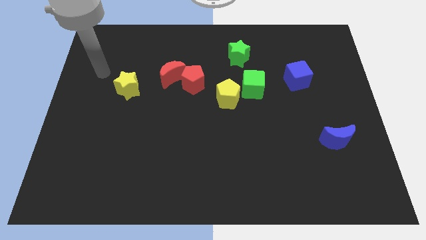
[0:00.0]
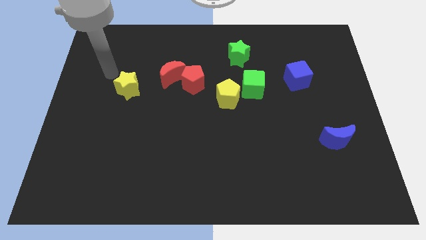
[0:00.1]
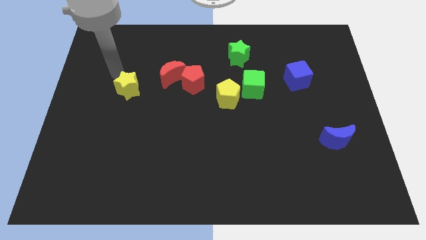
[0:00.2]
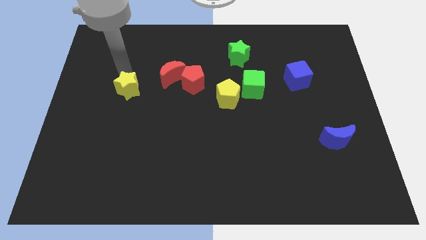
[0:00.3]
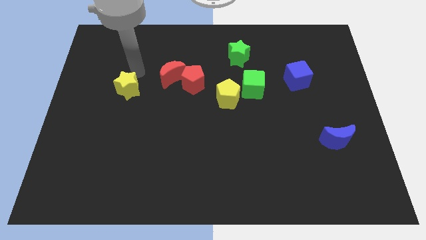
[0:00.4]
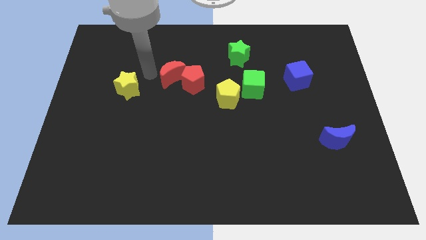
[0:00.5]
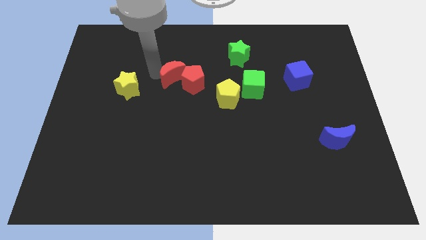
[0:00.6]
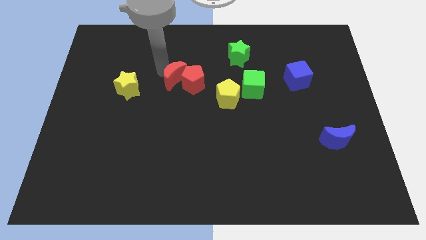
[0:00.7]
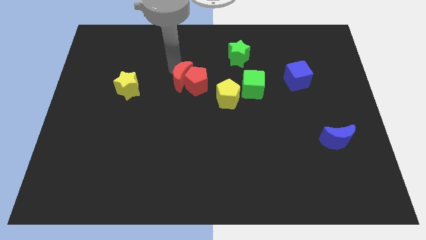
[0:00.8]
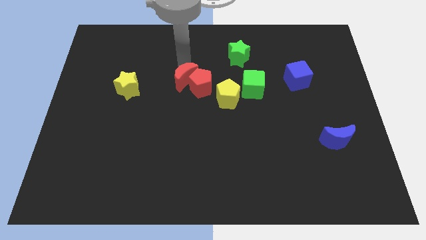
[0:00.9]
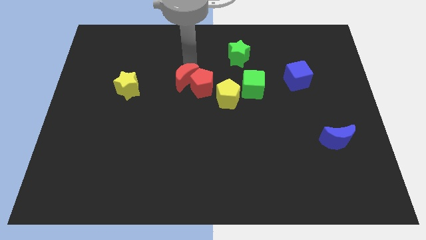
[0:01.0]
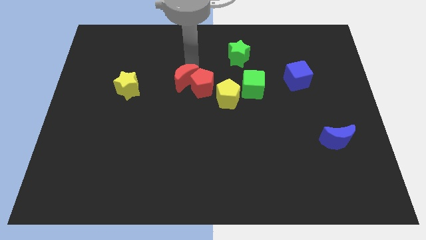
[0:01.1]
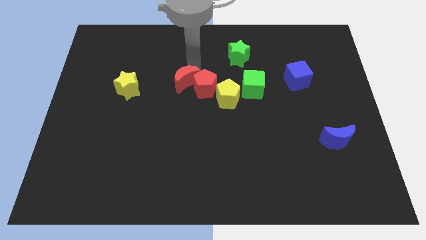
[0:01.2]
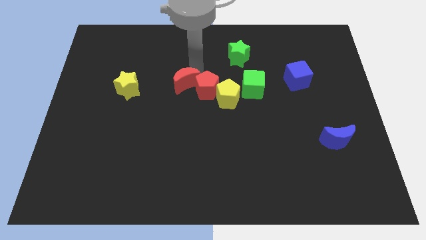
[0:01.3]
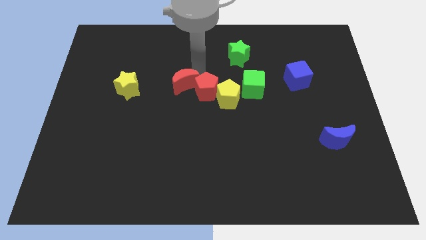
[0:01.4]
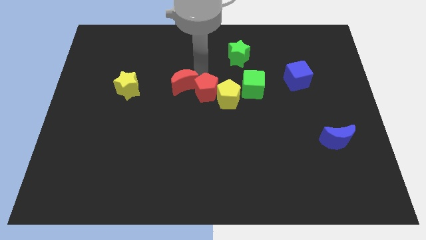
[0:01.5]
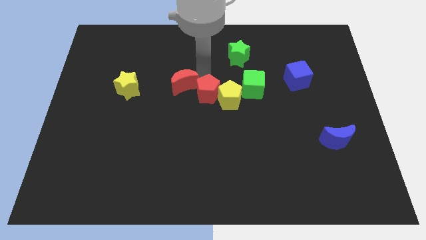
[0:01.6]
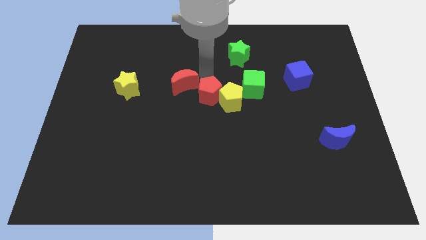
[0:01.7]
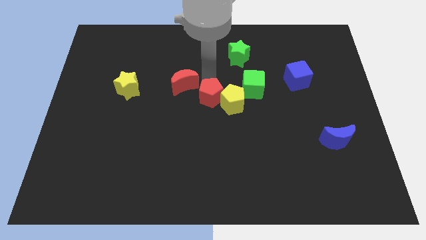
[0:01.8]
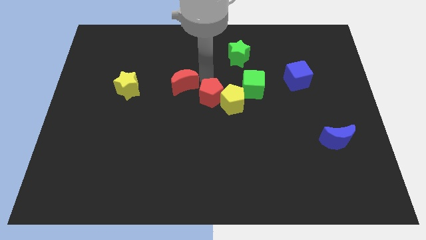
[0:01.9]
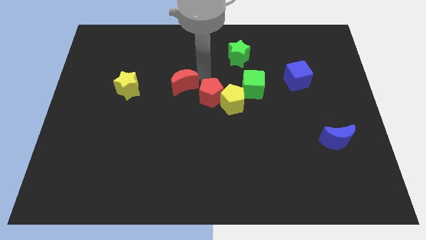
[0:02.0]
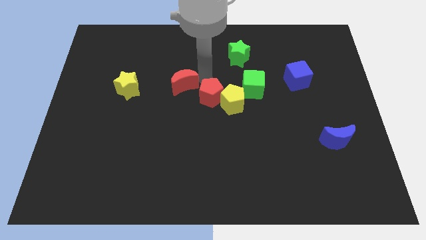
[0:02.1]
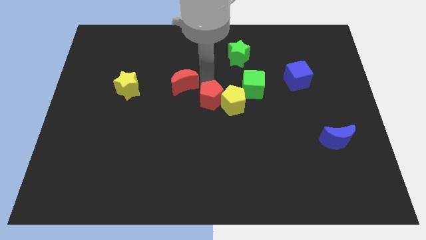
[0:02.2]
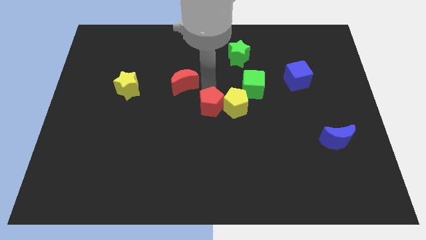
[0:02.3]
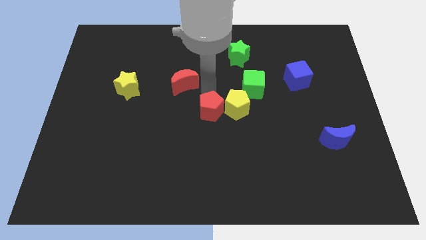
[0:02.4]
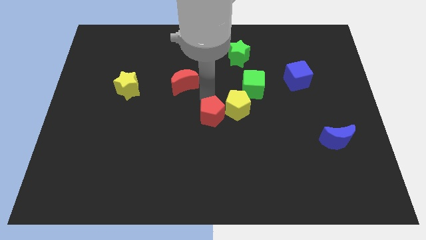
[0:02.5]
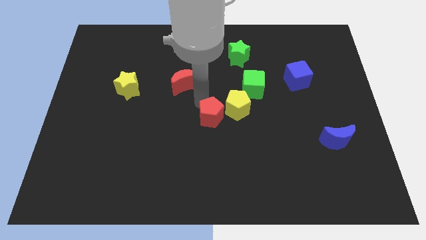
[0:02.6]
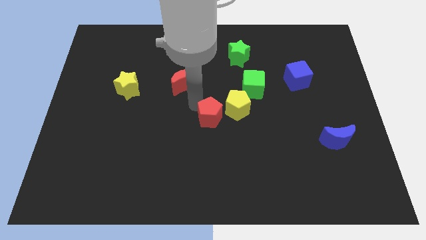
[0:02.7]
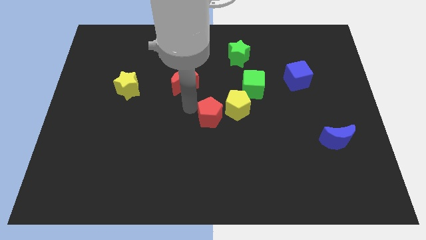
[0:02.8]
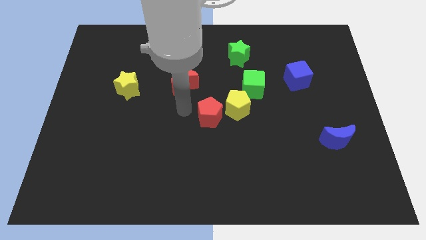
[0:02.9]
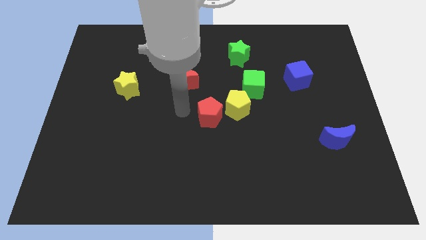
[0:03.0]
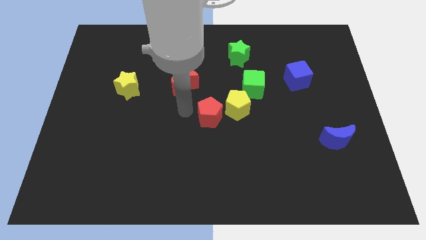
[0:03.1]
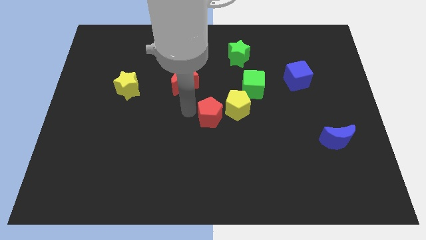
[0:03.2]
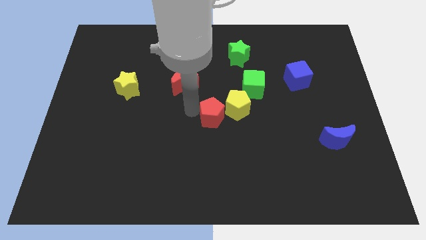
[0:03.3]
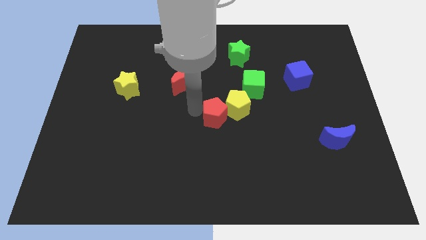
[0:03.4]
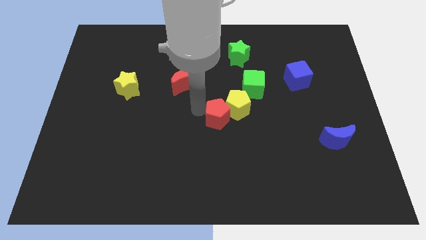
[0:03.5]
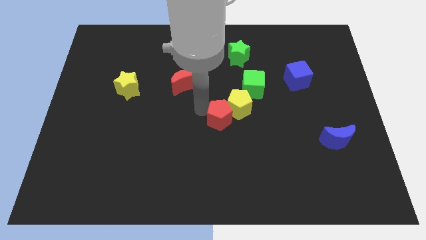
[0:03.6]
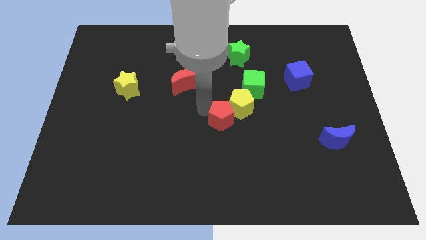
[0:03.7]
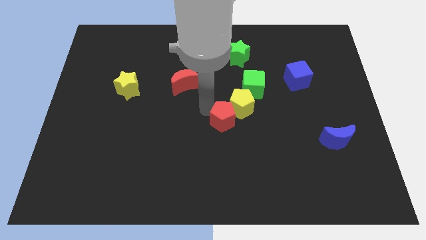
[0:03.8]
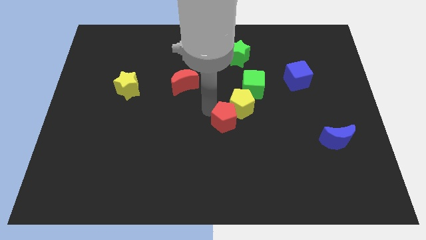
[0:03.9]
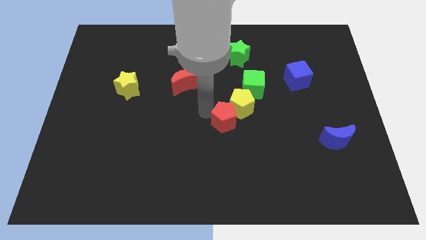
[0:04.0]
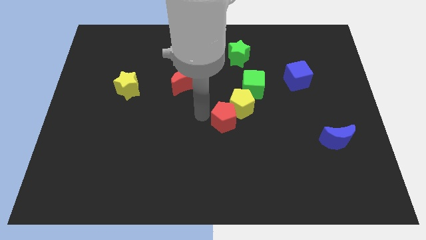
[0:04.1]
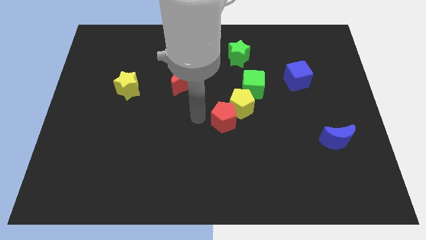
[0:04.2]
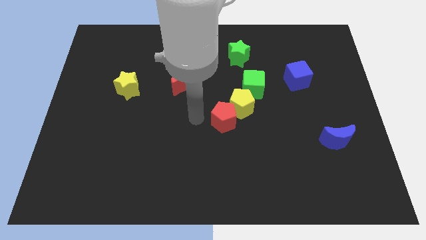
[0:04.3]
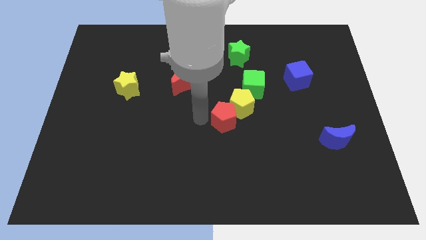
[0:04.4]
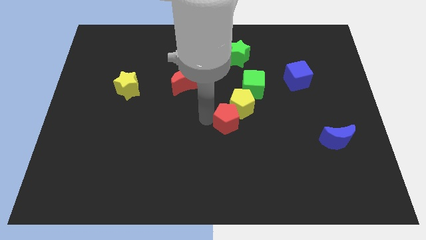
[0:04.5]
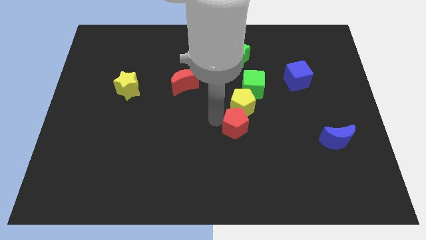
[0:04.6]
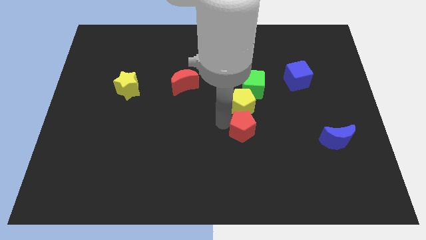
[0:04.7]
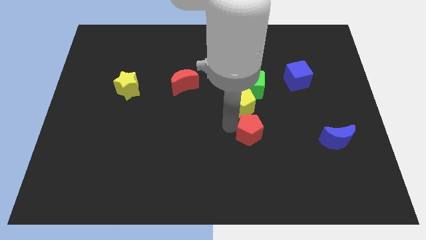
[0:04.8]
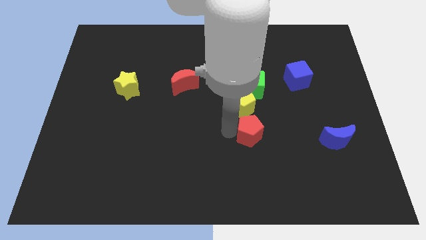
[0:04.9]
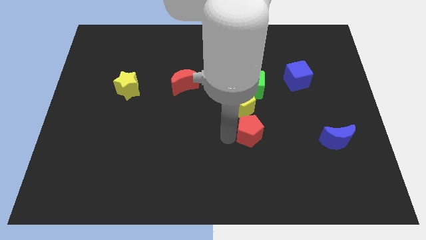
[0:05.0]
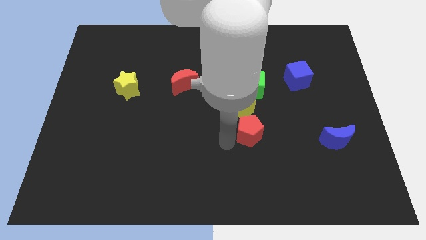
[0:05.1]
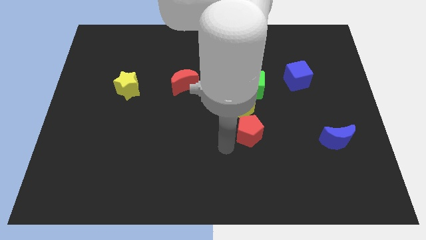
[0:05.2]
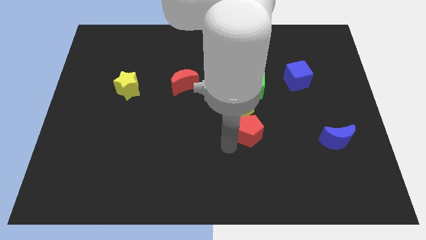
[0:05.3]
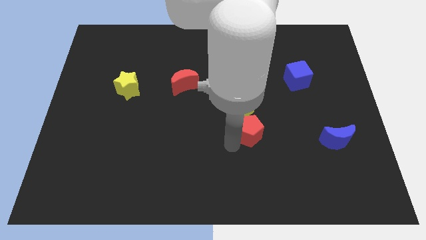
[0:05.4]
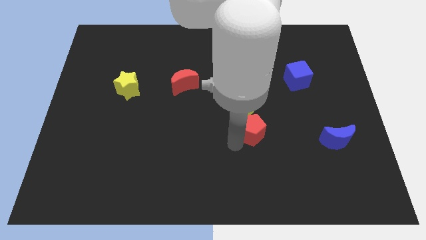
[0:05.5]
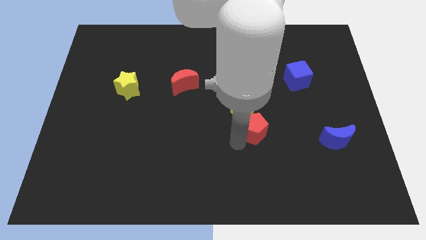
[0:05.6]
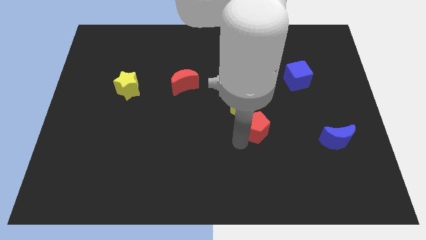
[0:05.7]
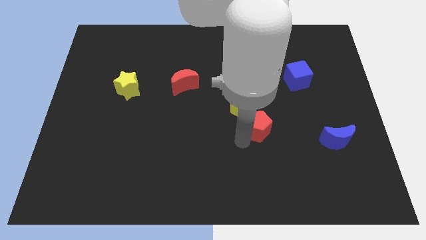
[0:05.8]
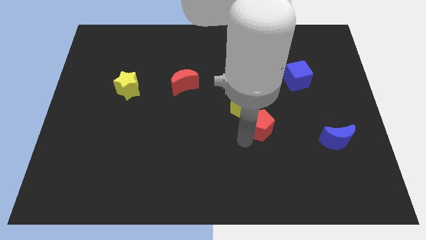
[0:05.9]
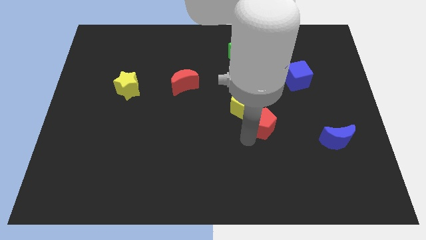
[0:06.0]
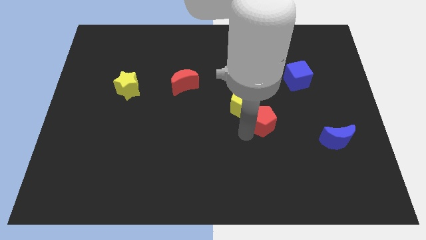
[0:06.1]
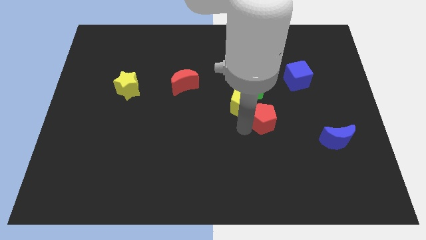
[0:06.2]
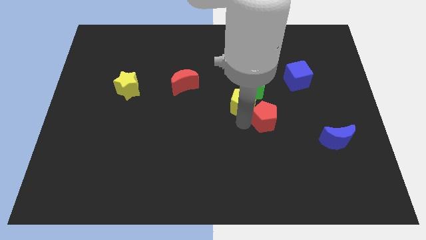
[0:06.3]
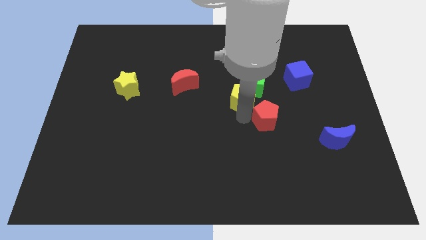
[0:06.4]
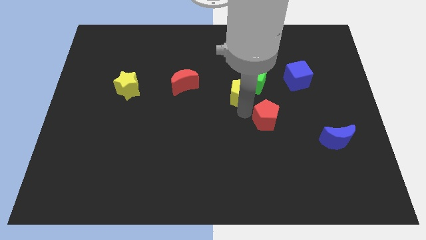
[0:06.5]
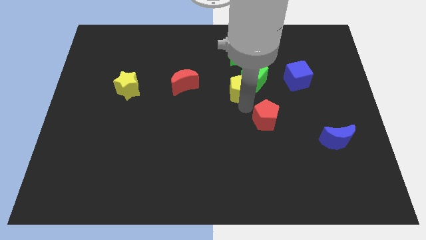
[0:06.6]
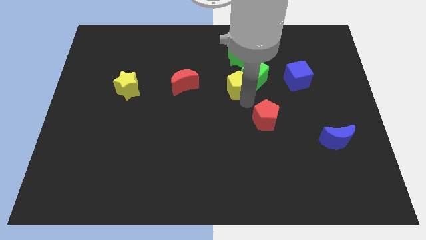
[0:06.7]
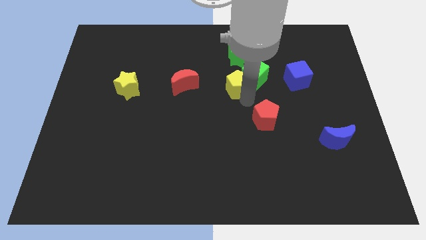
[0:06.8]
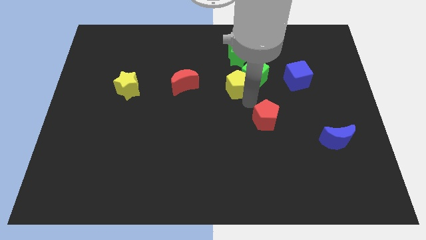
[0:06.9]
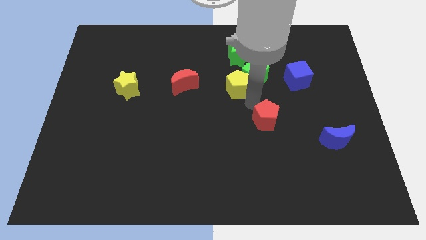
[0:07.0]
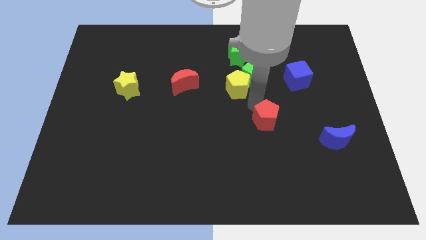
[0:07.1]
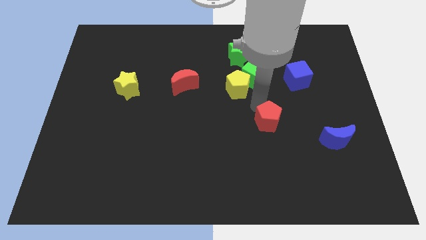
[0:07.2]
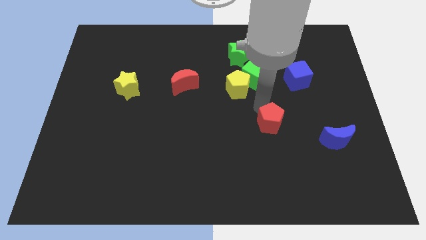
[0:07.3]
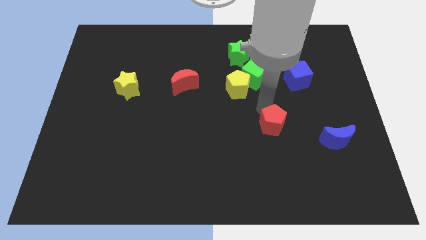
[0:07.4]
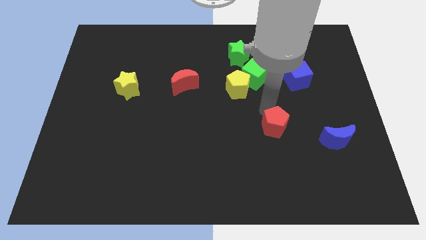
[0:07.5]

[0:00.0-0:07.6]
put the red pentagon to the left side of the blue moon
